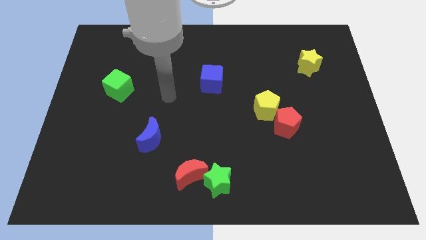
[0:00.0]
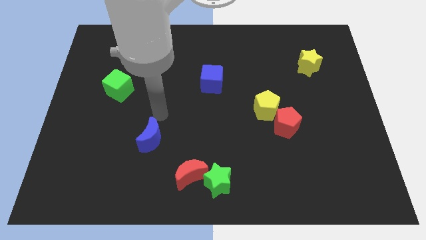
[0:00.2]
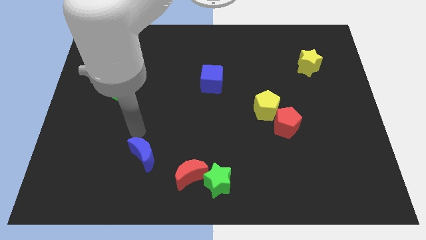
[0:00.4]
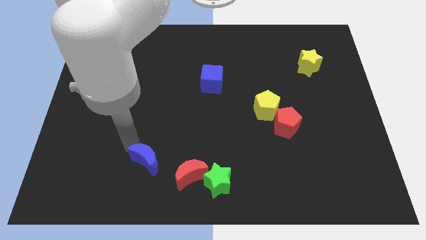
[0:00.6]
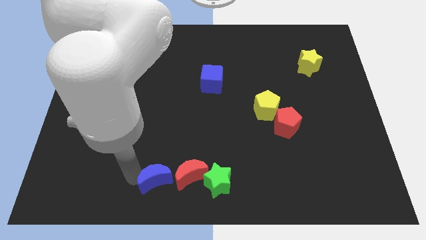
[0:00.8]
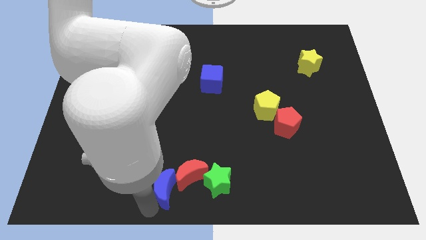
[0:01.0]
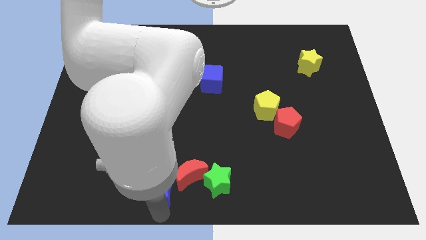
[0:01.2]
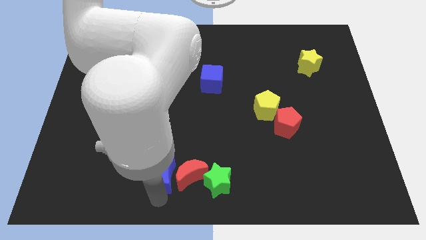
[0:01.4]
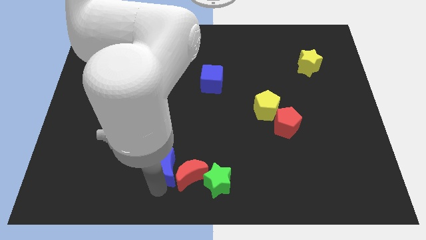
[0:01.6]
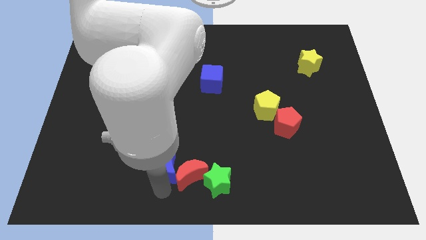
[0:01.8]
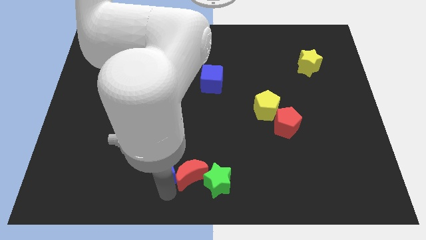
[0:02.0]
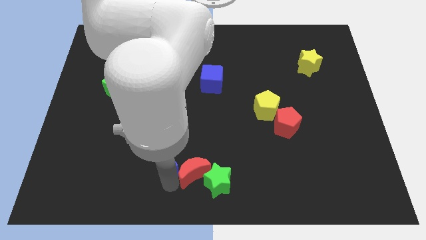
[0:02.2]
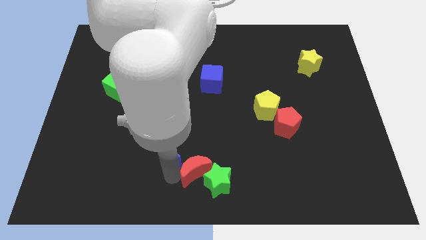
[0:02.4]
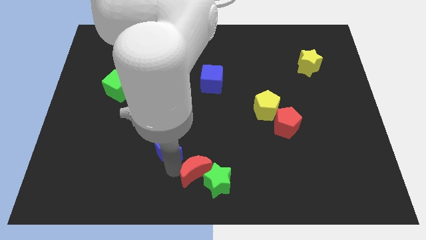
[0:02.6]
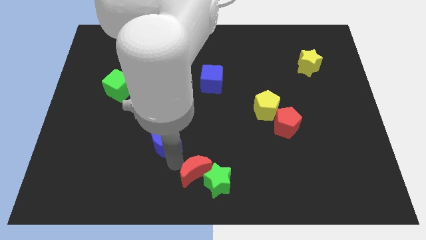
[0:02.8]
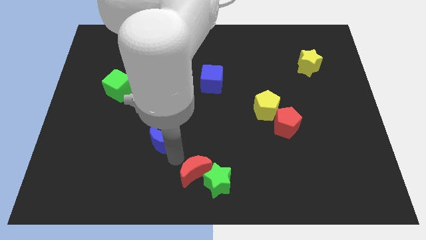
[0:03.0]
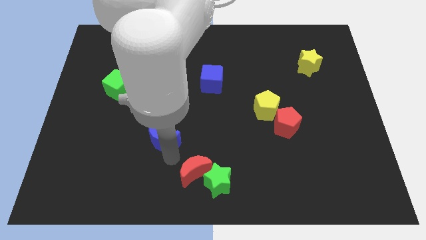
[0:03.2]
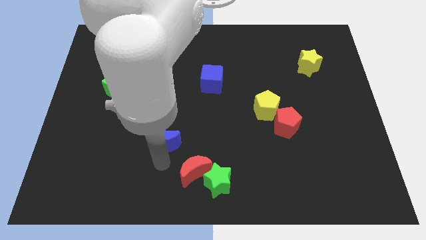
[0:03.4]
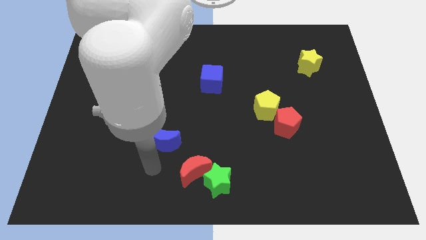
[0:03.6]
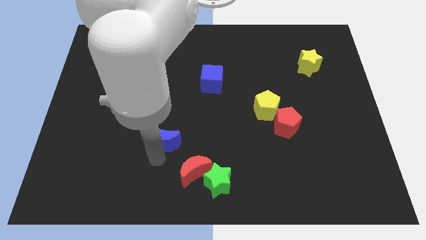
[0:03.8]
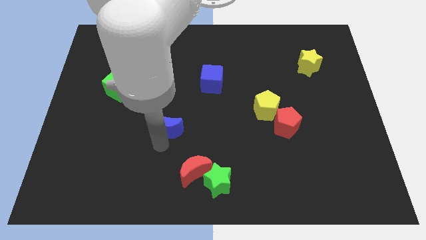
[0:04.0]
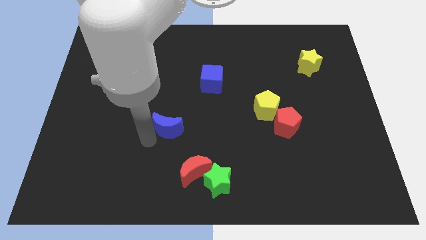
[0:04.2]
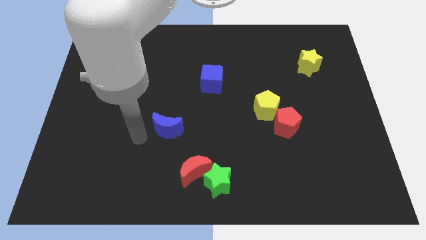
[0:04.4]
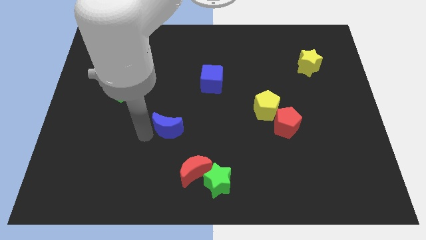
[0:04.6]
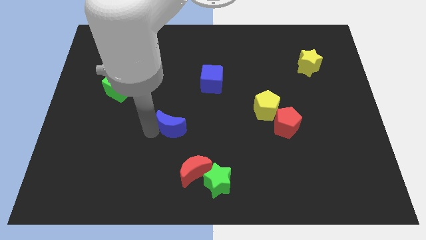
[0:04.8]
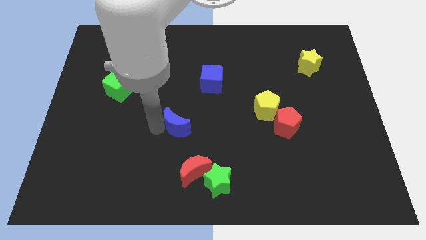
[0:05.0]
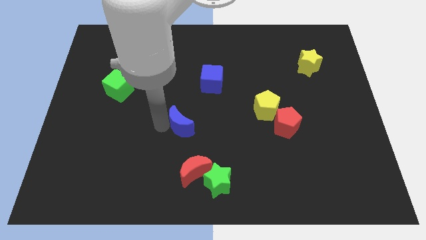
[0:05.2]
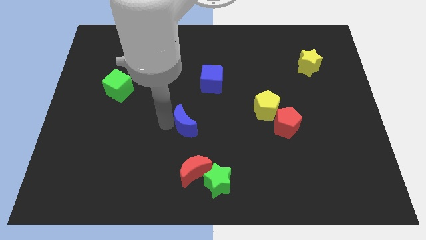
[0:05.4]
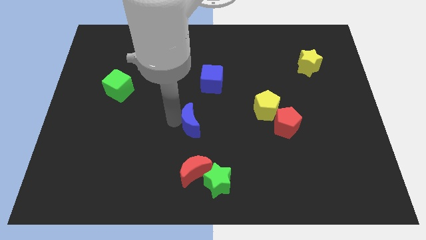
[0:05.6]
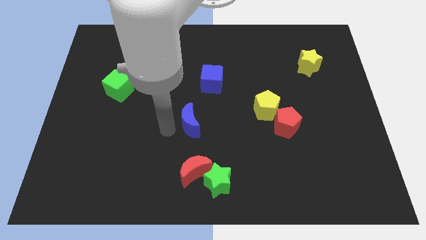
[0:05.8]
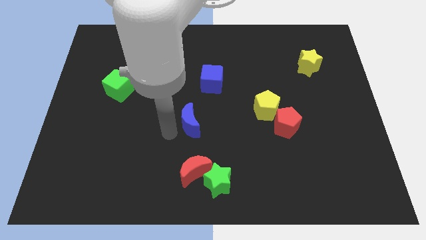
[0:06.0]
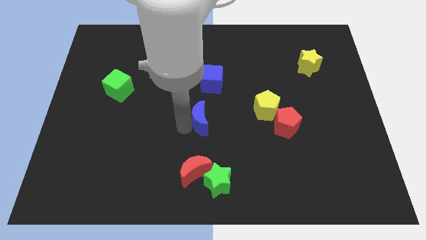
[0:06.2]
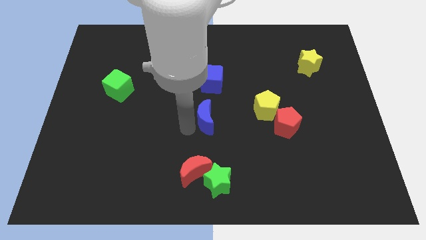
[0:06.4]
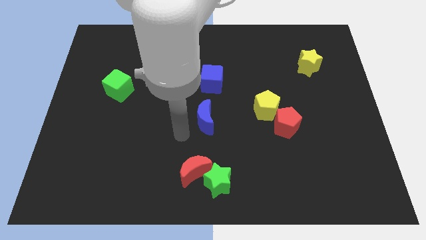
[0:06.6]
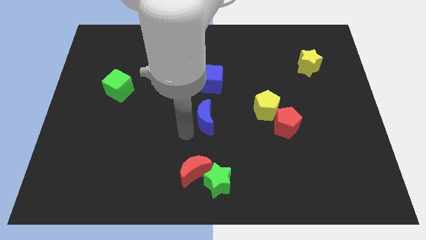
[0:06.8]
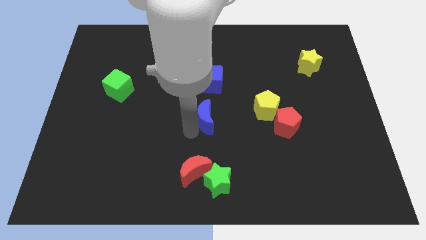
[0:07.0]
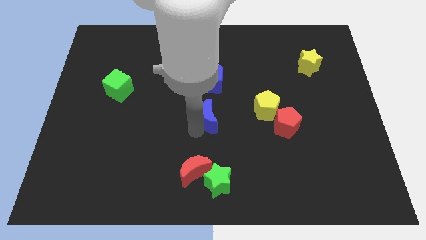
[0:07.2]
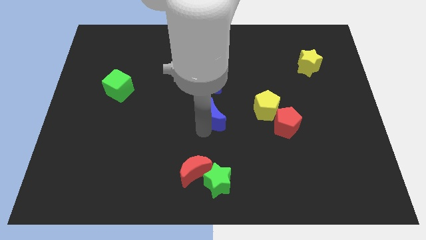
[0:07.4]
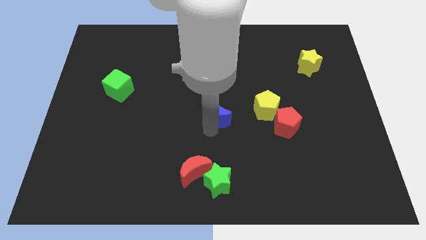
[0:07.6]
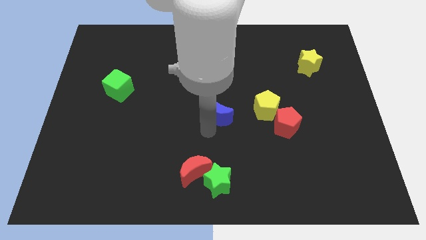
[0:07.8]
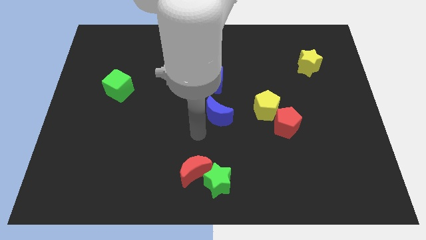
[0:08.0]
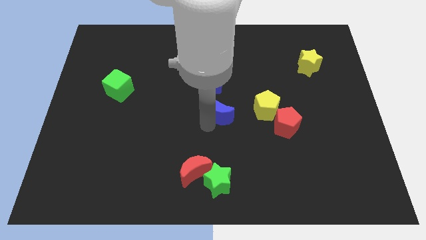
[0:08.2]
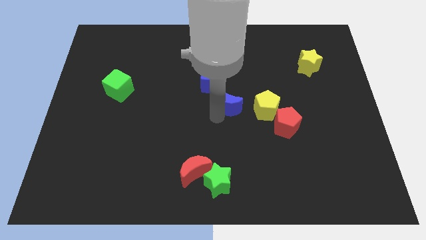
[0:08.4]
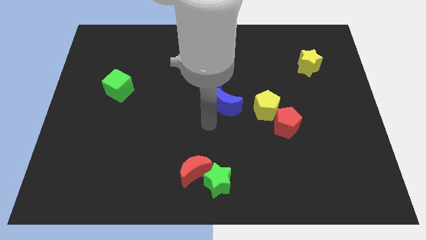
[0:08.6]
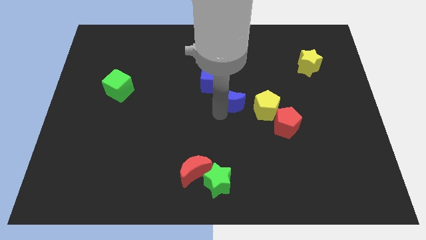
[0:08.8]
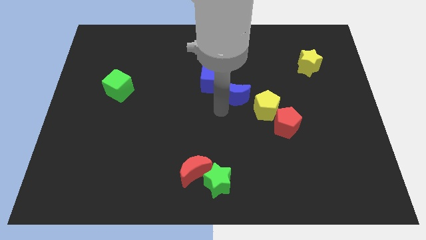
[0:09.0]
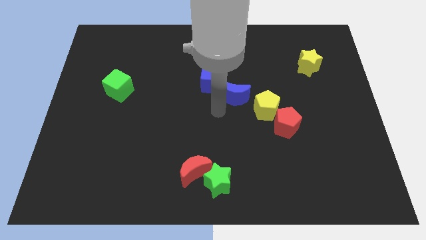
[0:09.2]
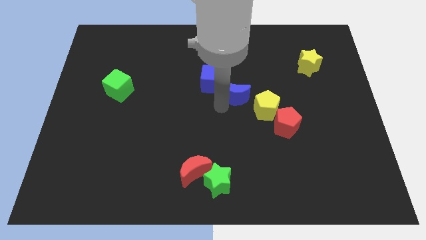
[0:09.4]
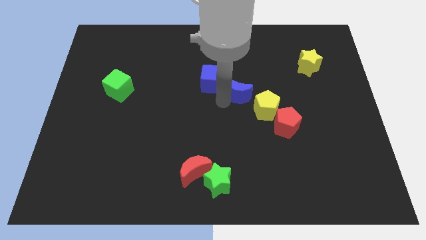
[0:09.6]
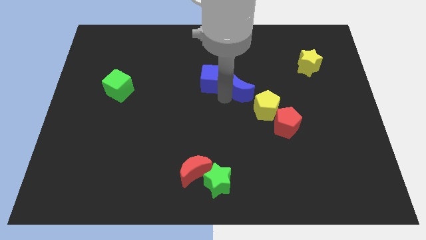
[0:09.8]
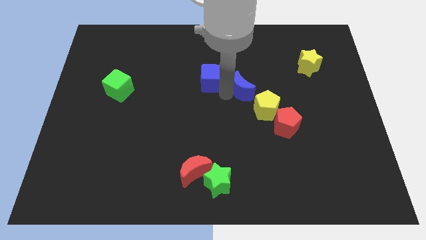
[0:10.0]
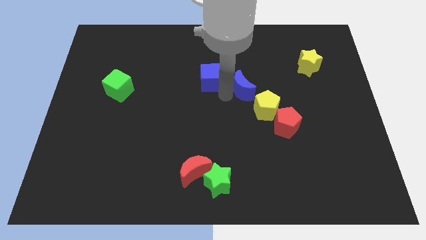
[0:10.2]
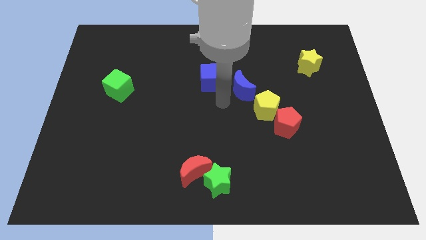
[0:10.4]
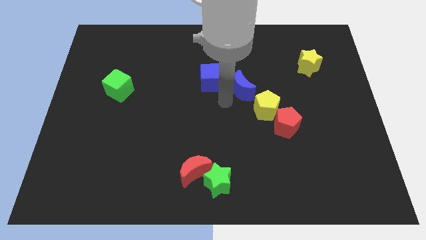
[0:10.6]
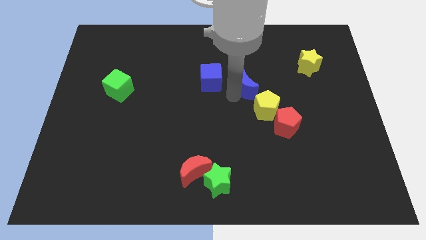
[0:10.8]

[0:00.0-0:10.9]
slide the blue moon to the top of the yellow pentagon

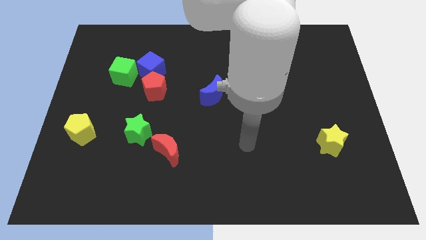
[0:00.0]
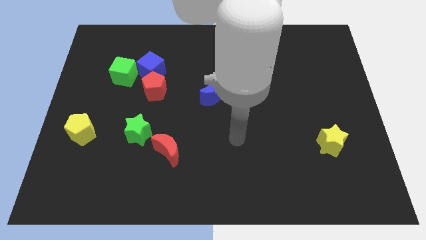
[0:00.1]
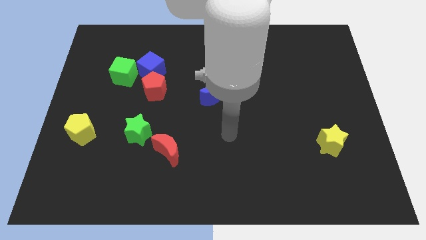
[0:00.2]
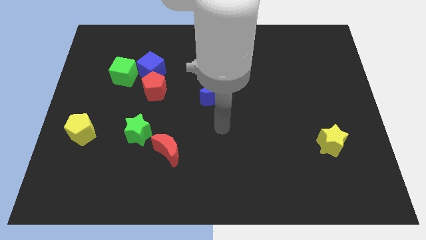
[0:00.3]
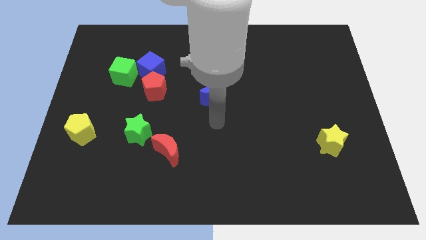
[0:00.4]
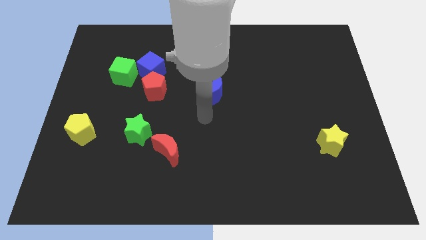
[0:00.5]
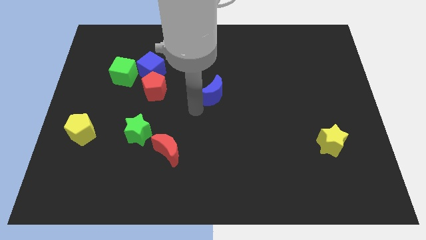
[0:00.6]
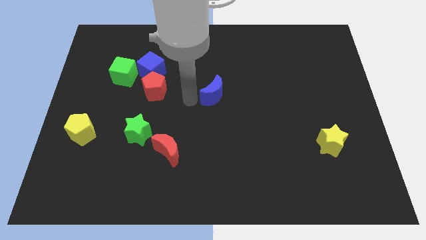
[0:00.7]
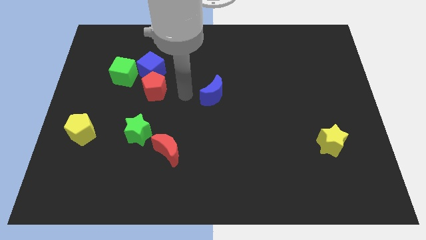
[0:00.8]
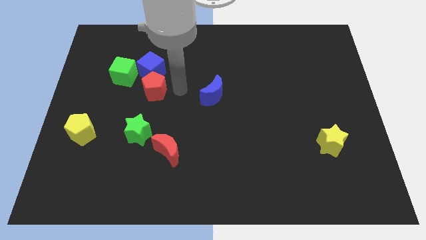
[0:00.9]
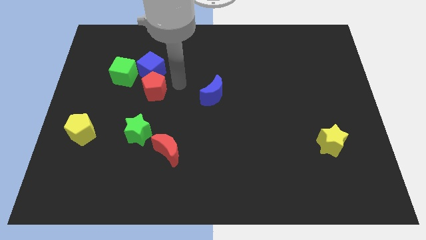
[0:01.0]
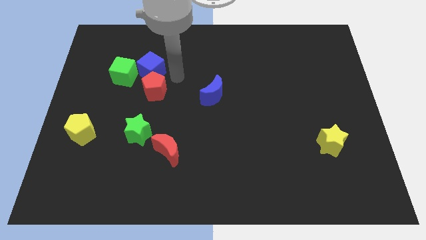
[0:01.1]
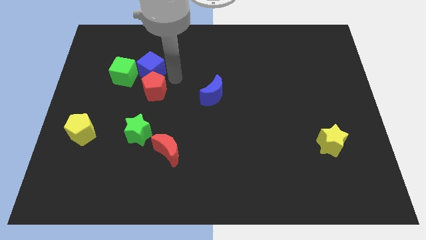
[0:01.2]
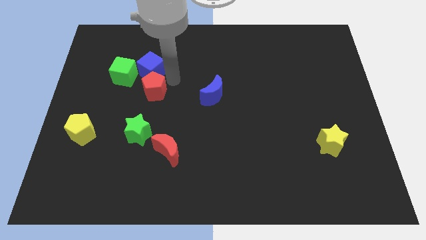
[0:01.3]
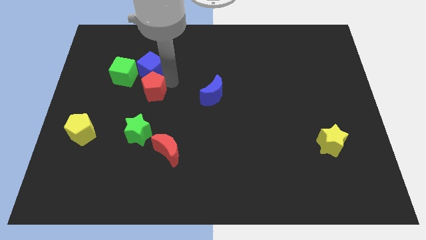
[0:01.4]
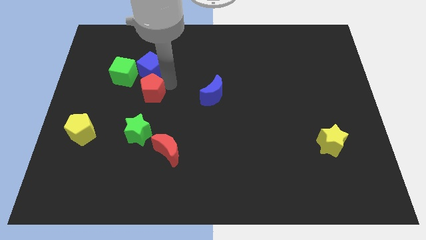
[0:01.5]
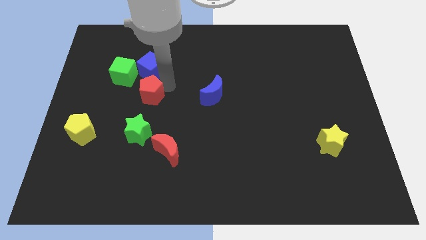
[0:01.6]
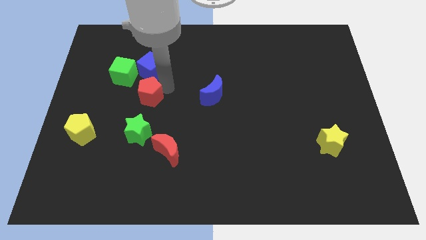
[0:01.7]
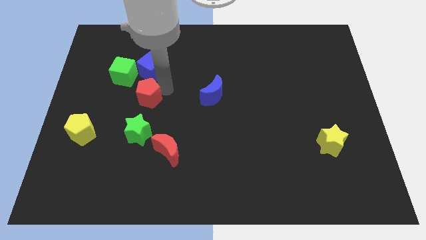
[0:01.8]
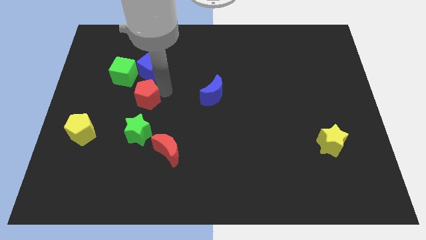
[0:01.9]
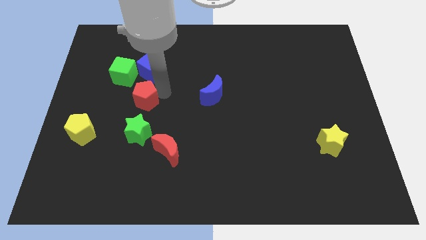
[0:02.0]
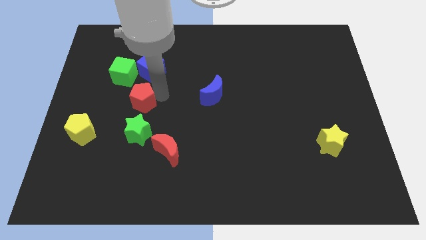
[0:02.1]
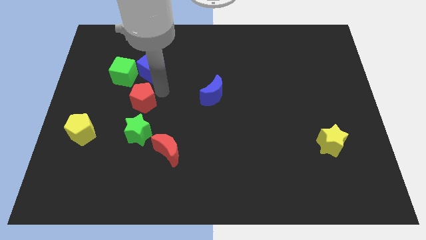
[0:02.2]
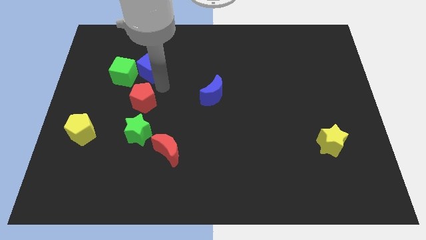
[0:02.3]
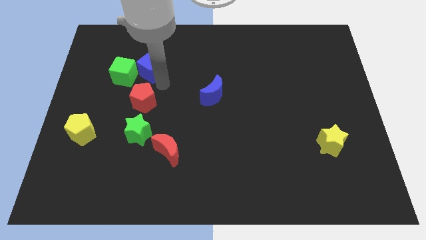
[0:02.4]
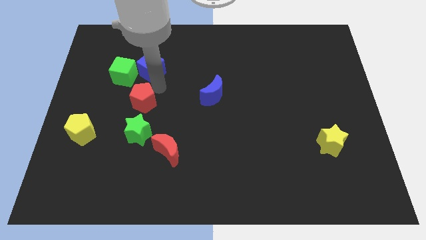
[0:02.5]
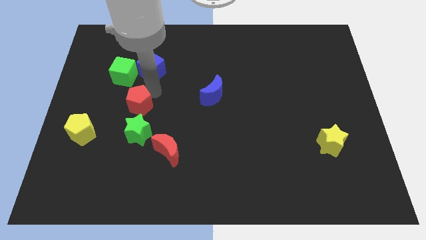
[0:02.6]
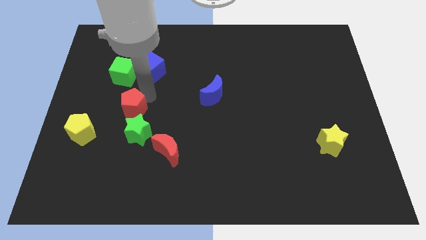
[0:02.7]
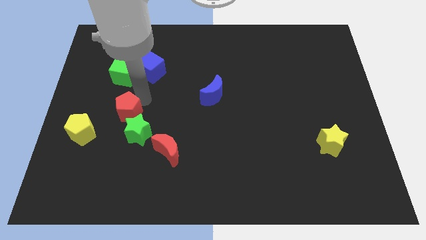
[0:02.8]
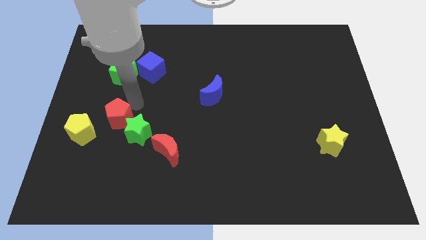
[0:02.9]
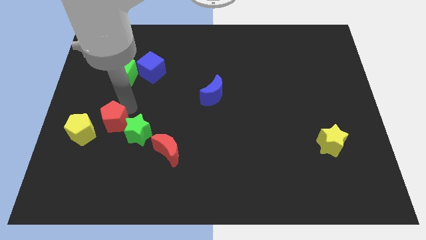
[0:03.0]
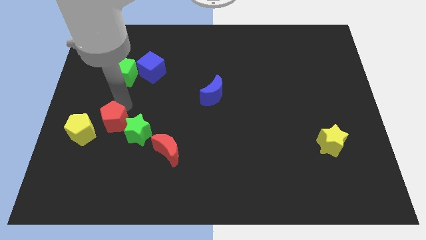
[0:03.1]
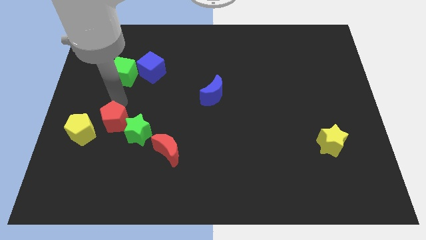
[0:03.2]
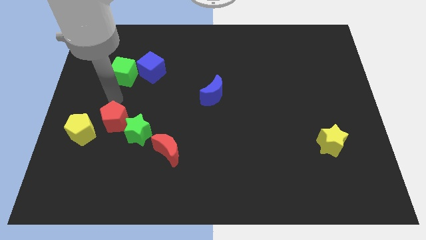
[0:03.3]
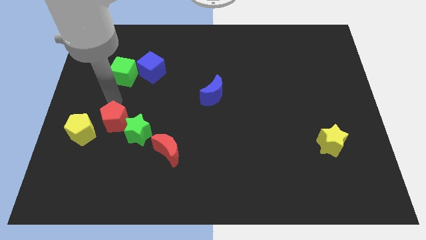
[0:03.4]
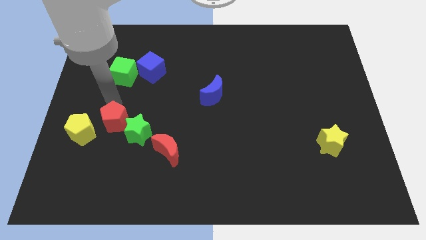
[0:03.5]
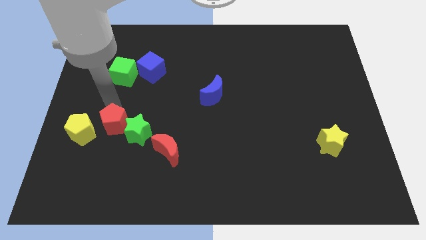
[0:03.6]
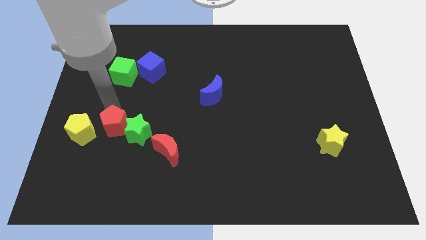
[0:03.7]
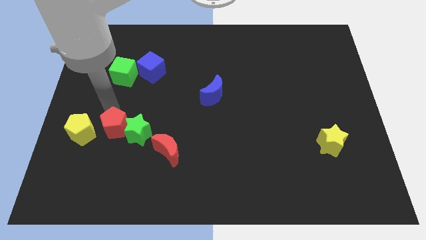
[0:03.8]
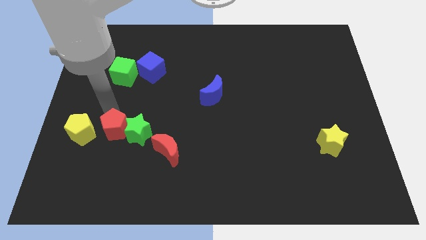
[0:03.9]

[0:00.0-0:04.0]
slide the red pentagon to the bottom left of the green star
